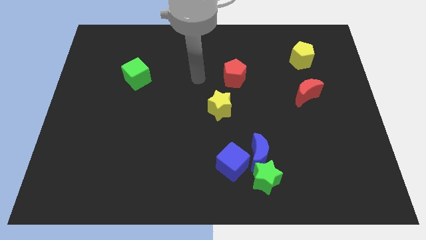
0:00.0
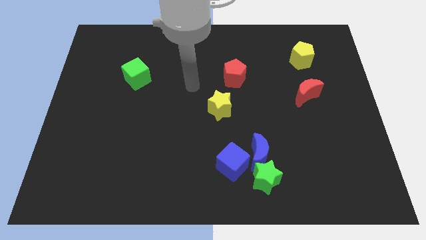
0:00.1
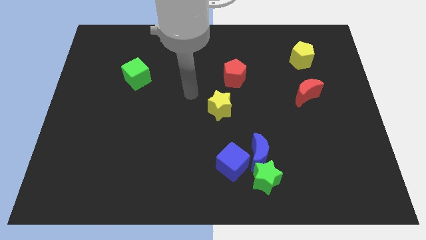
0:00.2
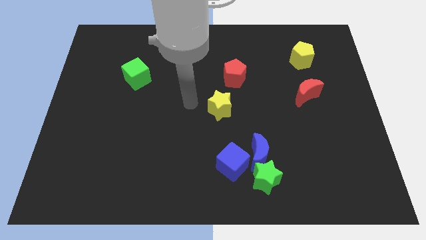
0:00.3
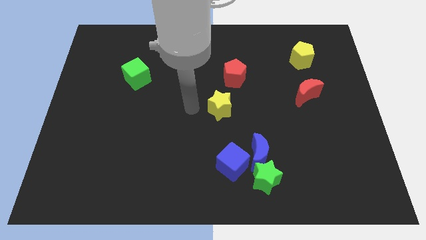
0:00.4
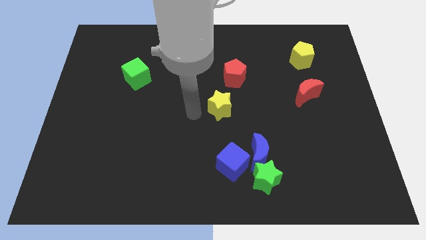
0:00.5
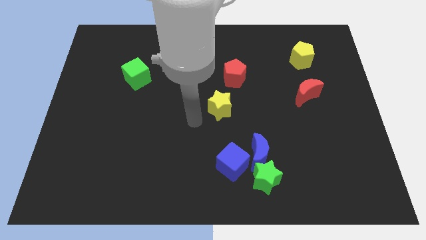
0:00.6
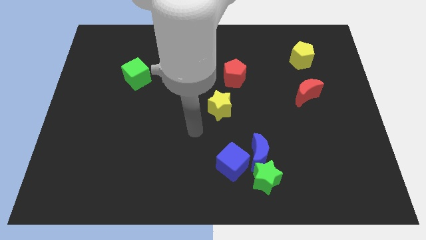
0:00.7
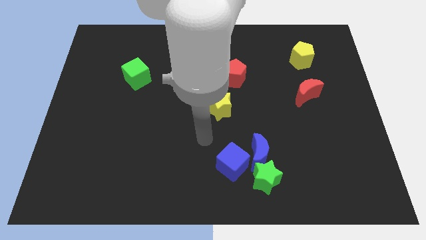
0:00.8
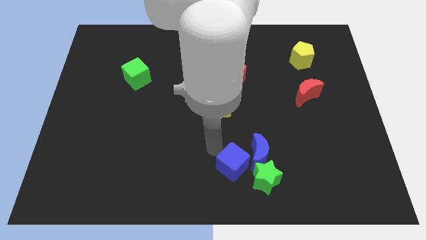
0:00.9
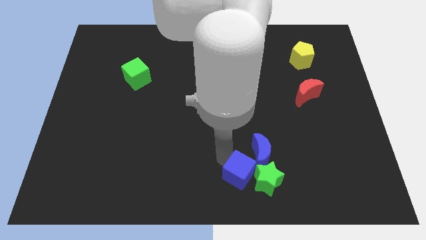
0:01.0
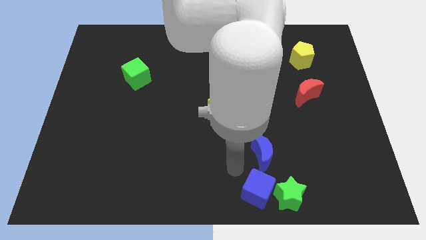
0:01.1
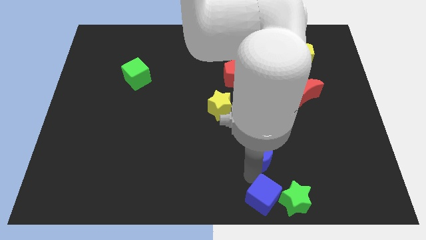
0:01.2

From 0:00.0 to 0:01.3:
separate the blue moon from the green star and blue cube

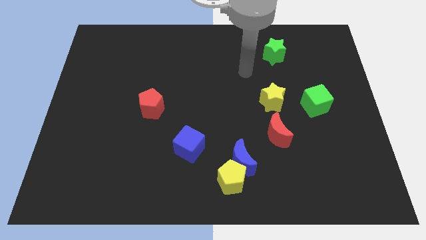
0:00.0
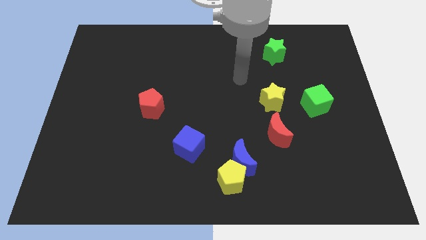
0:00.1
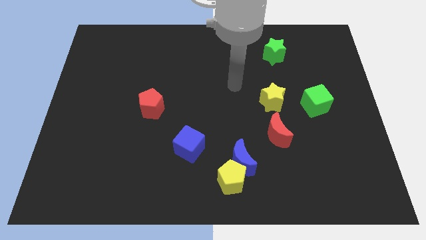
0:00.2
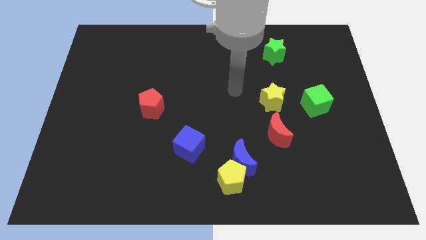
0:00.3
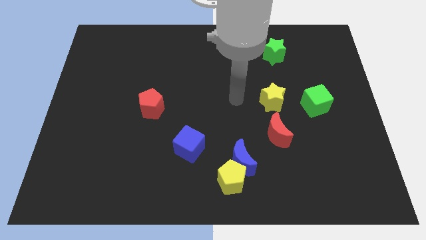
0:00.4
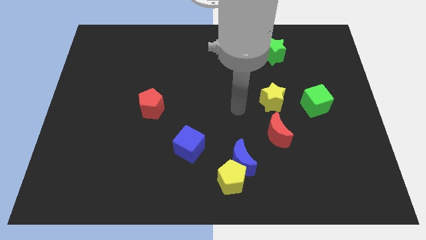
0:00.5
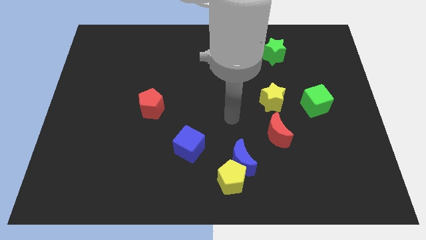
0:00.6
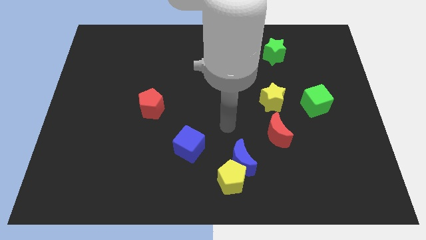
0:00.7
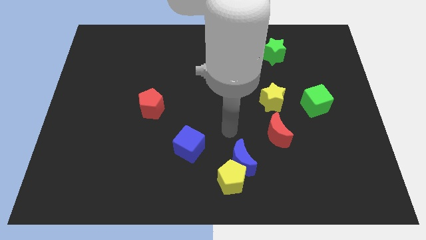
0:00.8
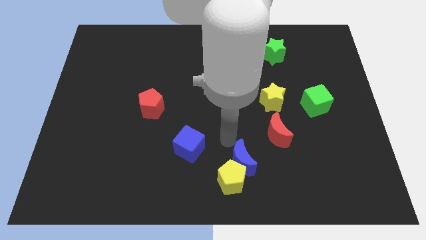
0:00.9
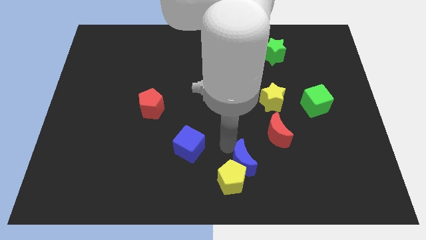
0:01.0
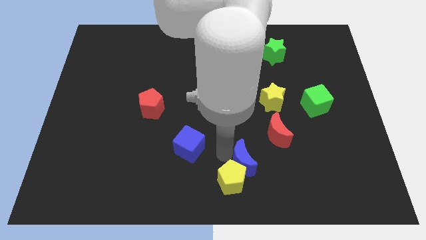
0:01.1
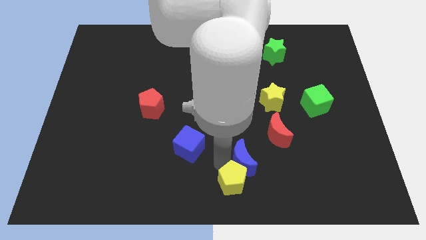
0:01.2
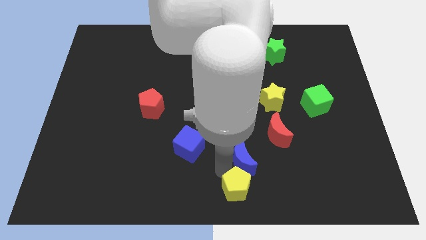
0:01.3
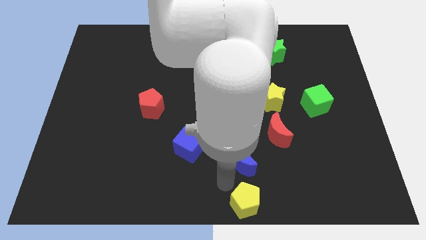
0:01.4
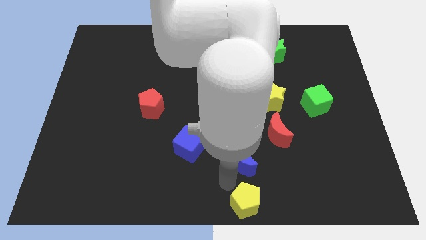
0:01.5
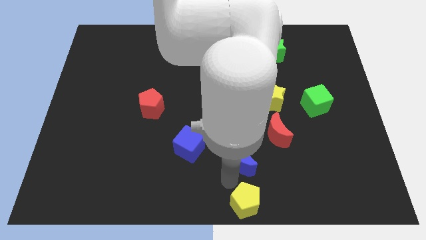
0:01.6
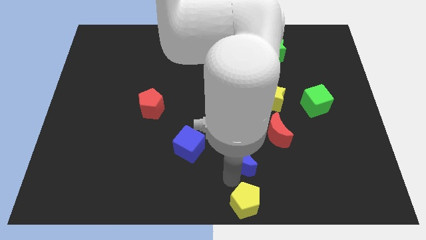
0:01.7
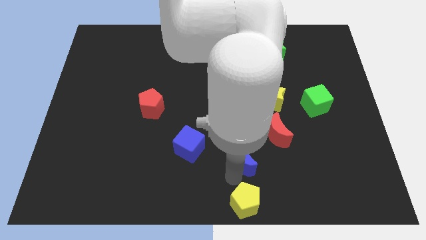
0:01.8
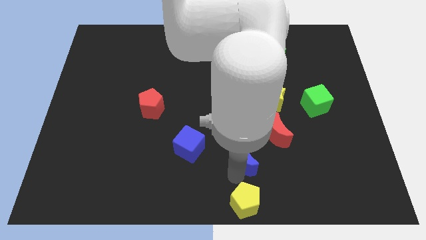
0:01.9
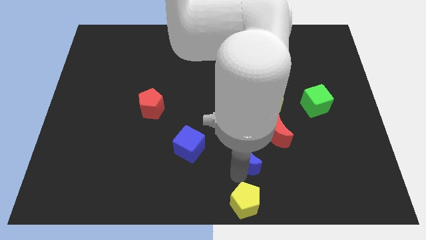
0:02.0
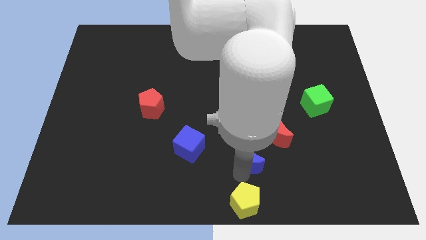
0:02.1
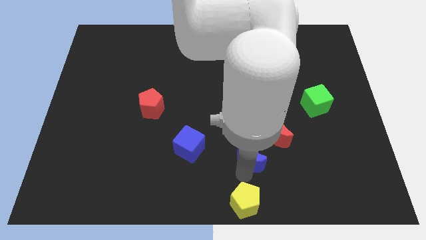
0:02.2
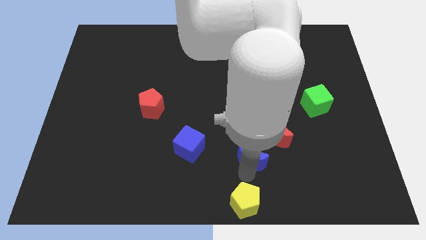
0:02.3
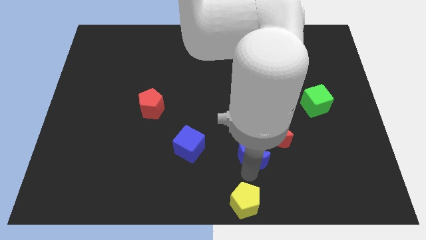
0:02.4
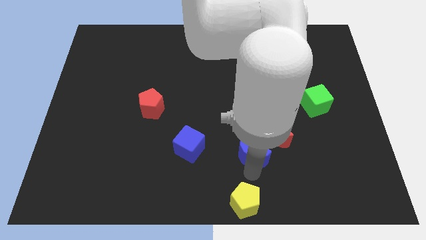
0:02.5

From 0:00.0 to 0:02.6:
pull the blue moon apart from the yellow pentagon

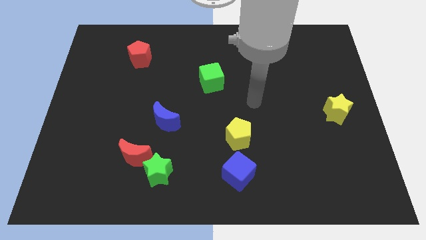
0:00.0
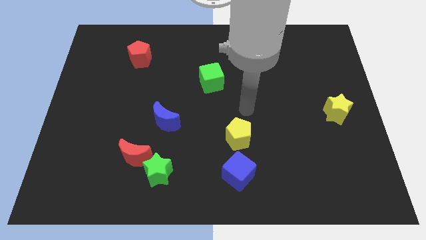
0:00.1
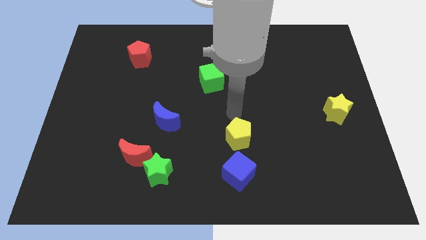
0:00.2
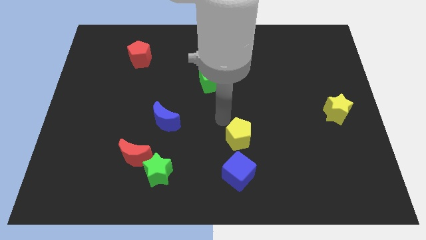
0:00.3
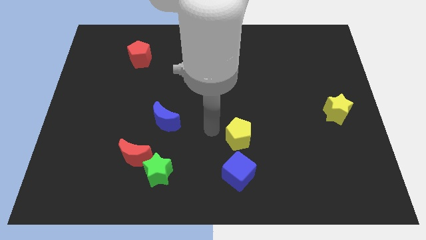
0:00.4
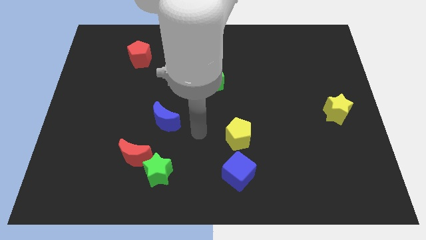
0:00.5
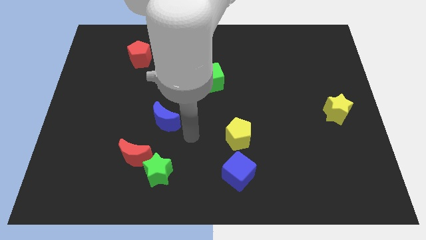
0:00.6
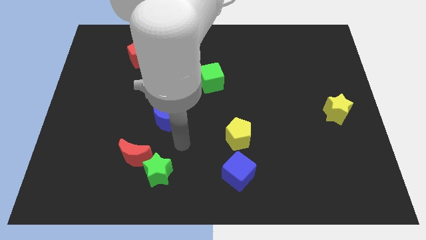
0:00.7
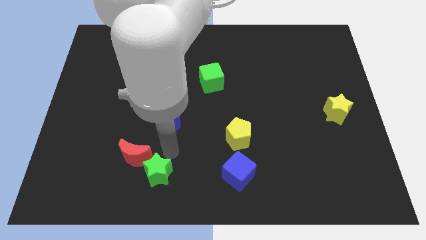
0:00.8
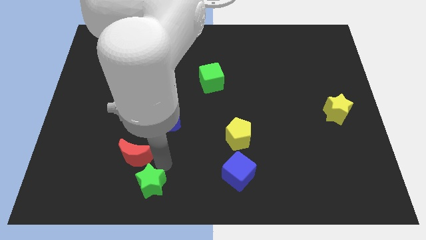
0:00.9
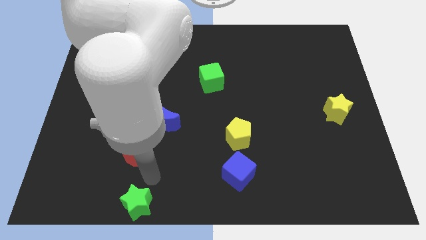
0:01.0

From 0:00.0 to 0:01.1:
pull the red moon apart from the green star

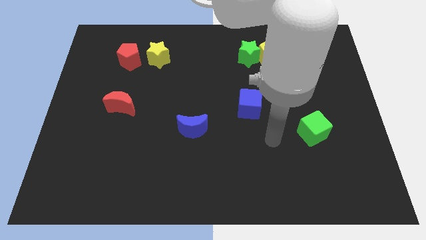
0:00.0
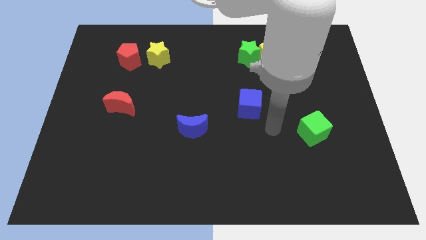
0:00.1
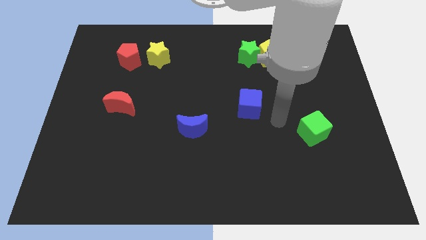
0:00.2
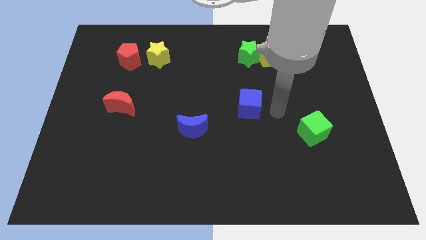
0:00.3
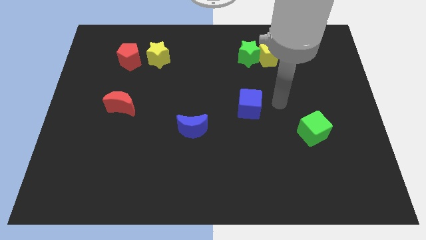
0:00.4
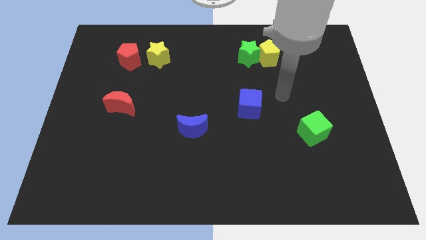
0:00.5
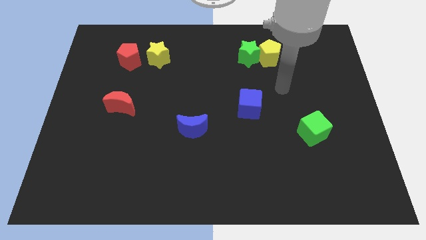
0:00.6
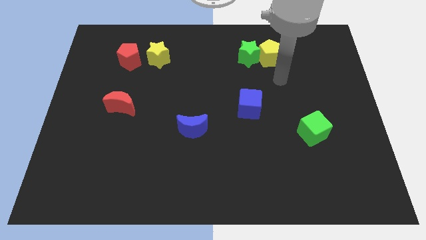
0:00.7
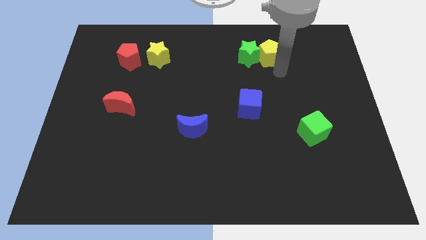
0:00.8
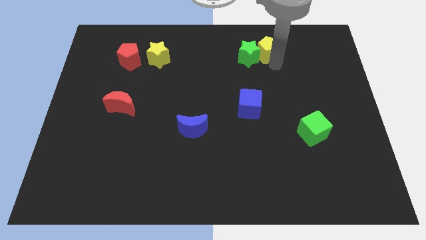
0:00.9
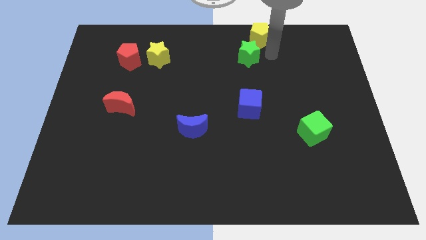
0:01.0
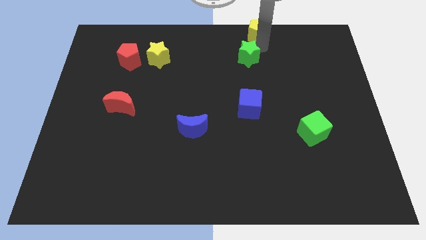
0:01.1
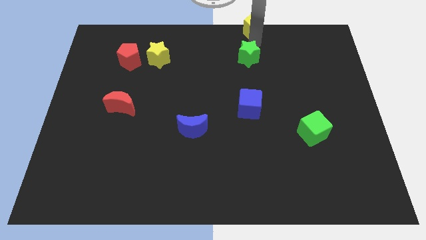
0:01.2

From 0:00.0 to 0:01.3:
separate the green star from the yellow pentagon

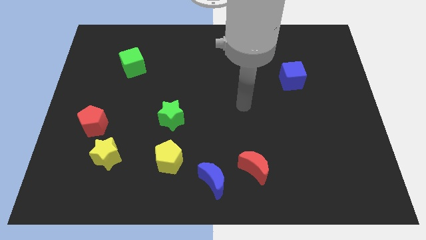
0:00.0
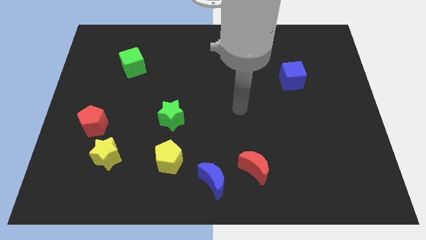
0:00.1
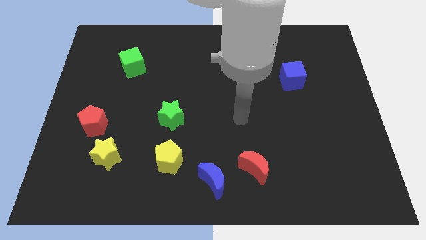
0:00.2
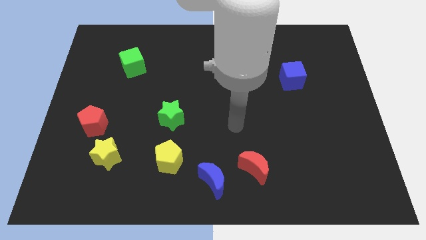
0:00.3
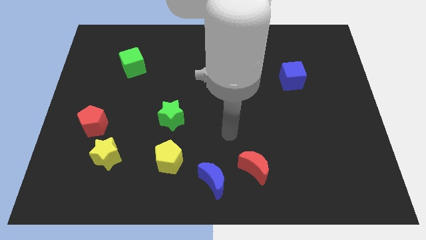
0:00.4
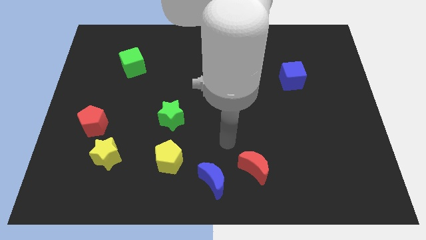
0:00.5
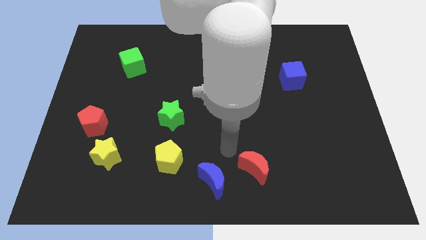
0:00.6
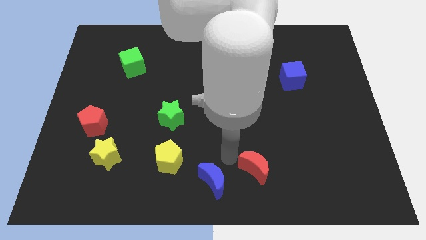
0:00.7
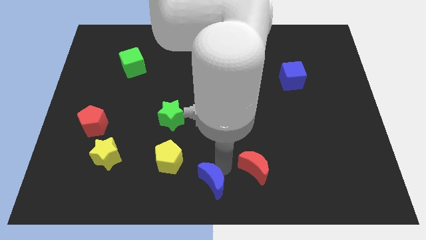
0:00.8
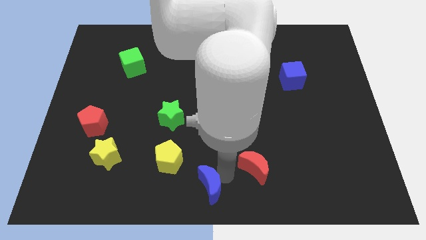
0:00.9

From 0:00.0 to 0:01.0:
pull the red moon apart from the blue moon

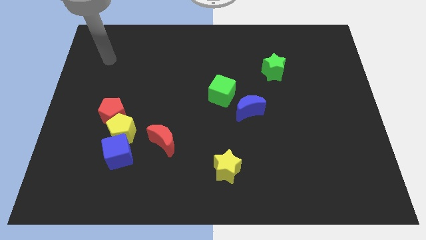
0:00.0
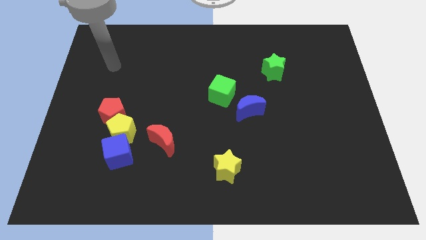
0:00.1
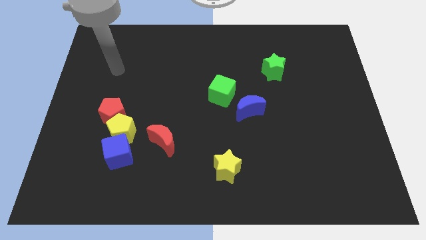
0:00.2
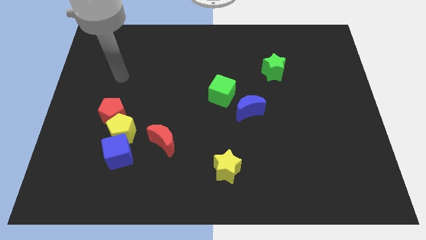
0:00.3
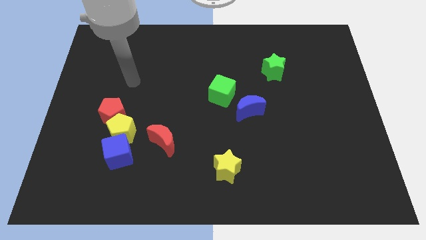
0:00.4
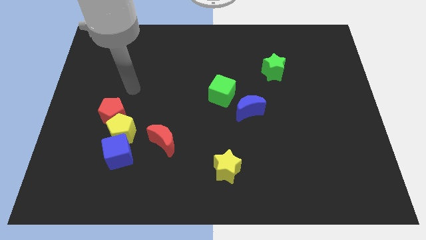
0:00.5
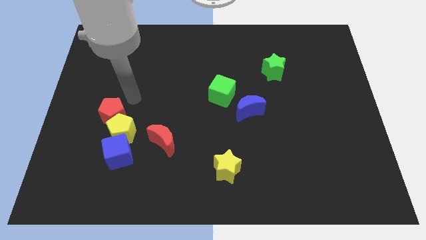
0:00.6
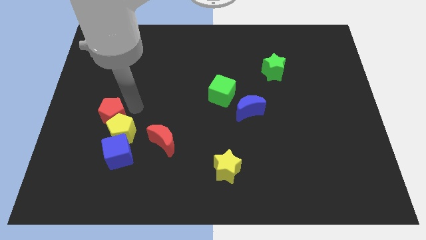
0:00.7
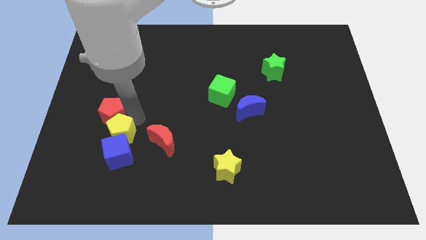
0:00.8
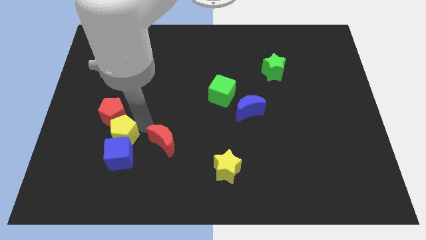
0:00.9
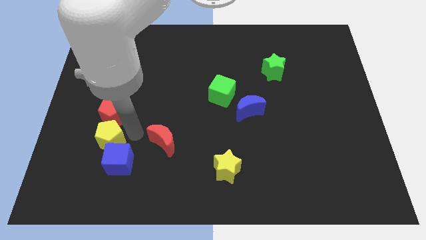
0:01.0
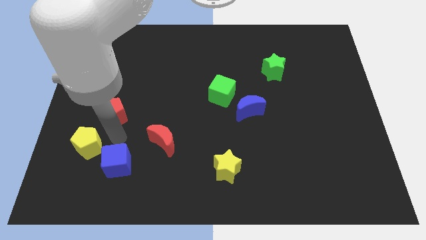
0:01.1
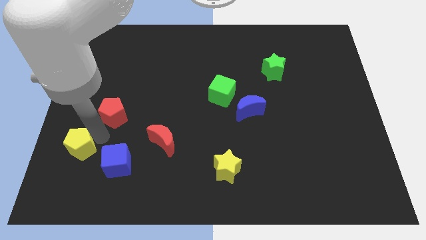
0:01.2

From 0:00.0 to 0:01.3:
pull the red pentagon apart from the yellow pentagon

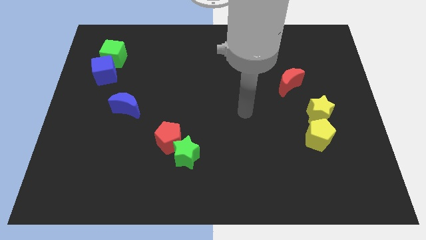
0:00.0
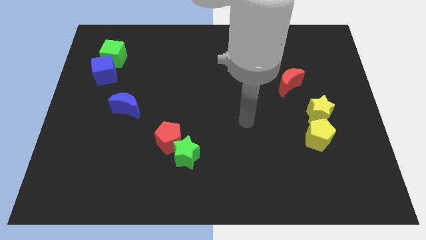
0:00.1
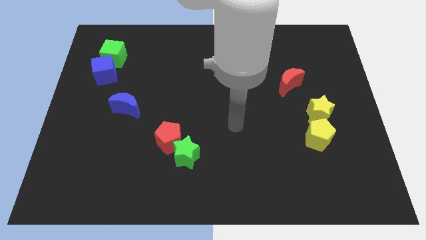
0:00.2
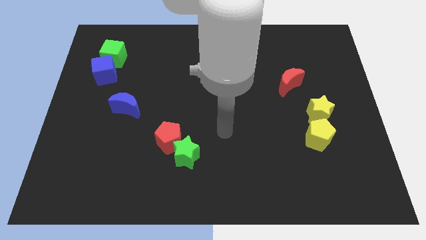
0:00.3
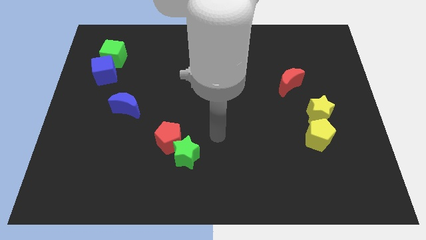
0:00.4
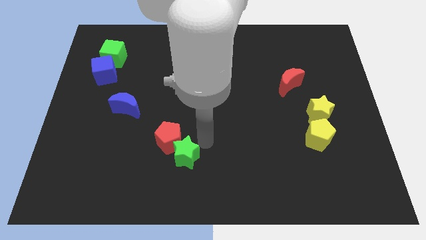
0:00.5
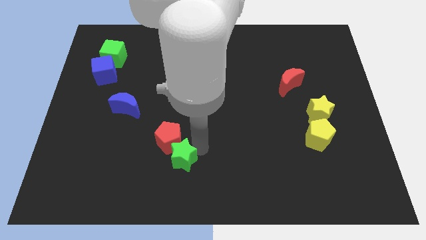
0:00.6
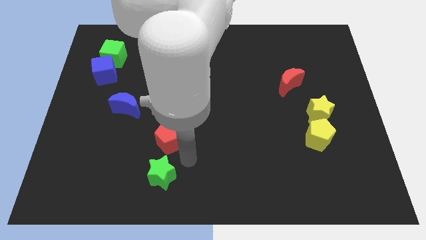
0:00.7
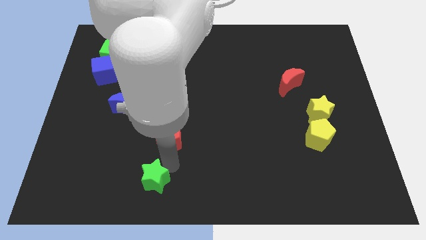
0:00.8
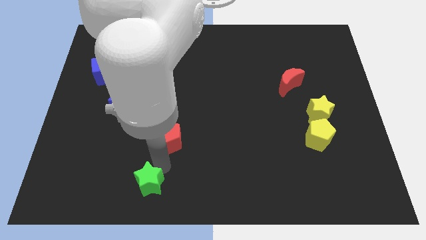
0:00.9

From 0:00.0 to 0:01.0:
pull the red pentagon apart from the green star
